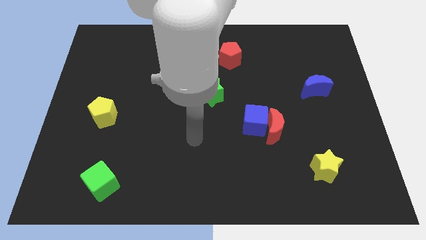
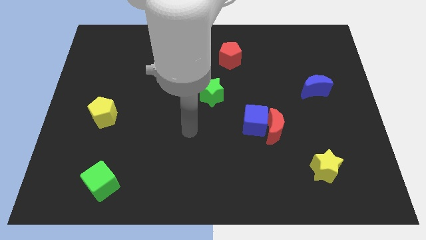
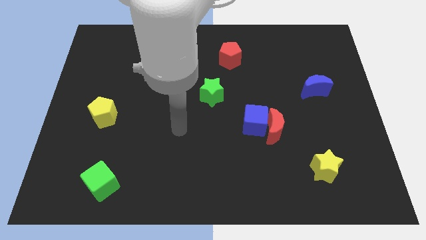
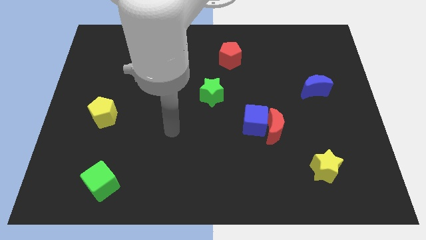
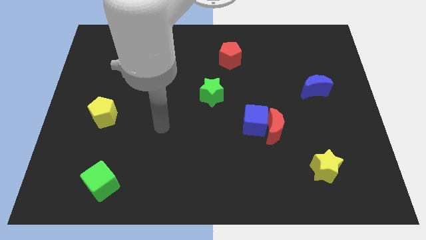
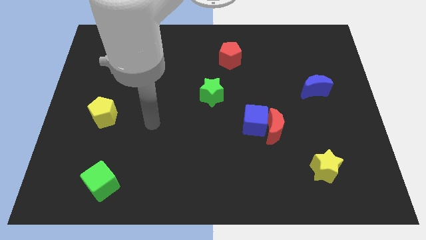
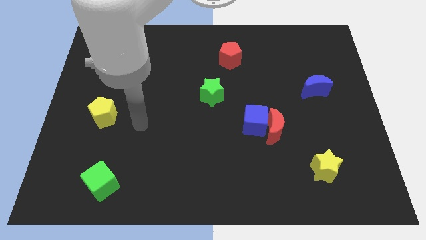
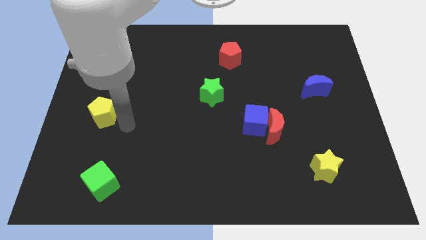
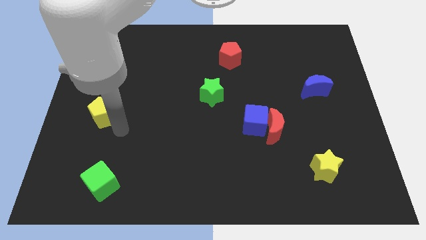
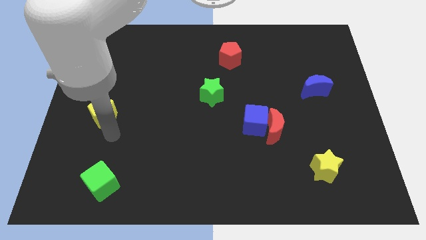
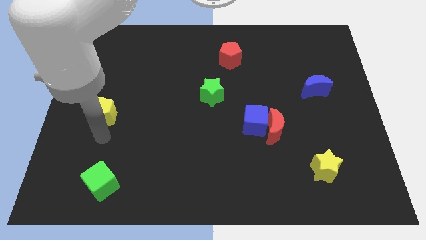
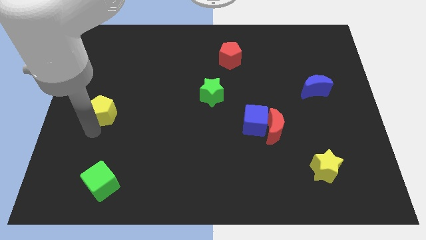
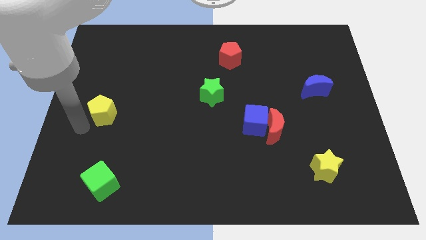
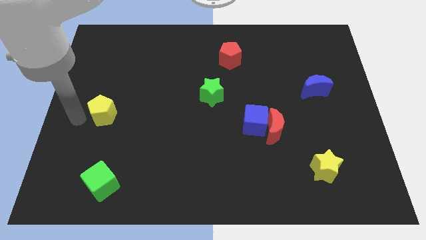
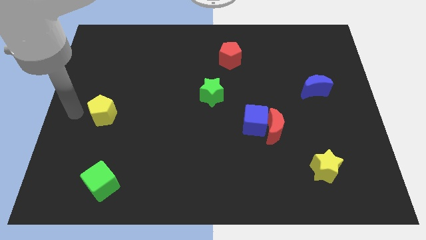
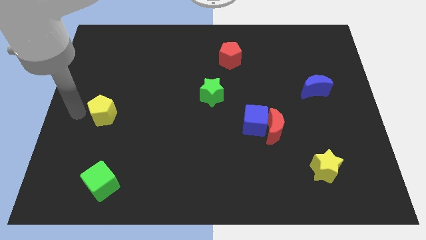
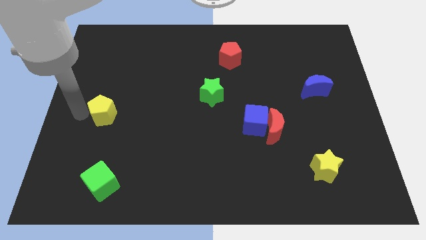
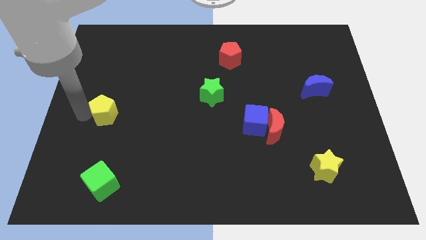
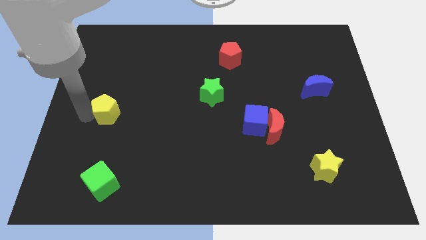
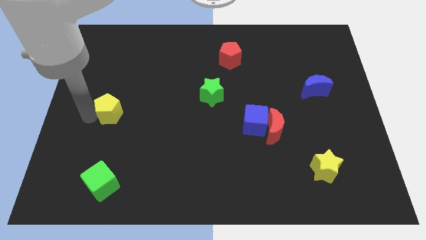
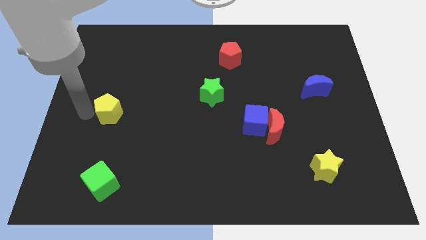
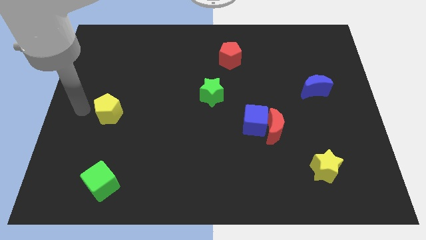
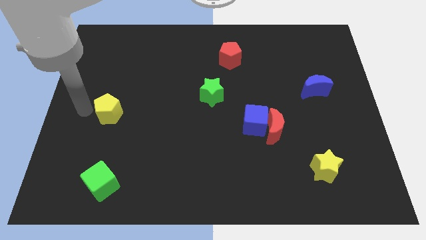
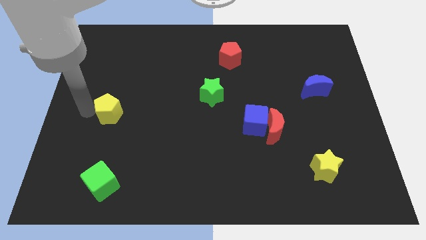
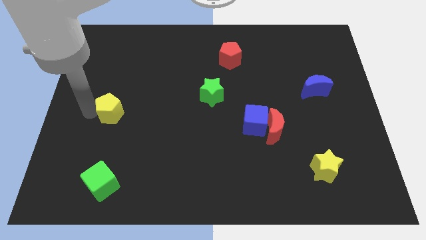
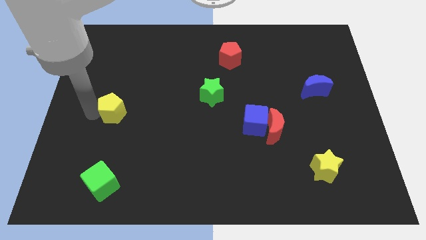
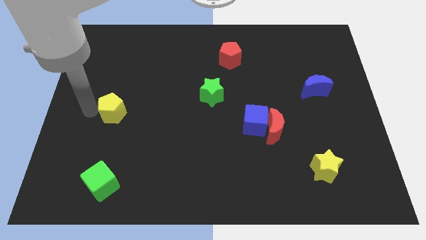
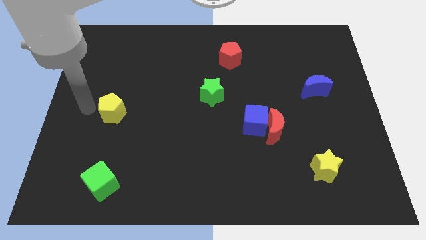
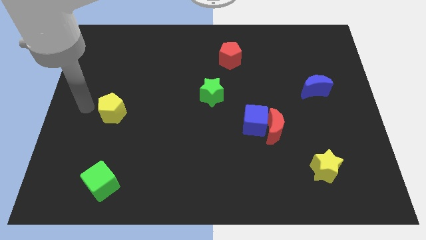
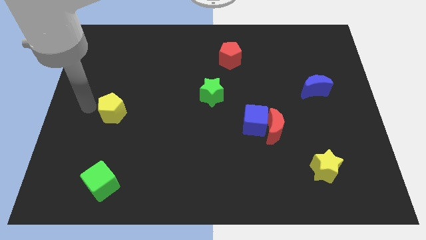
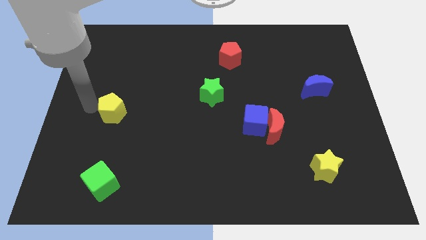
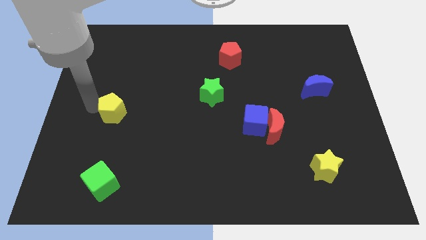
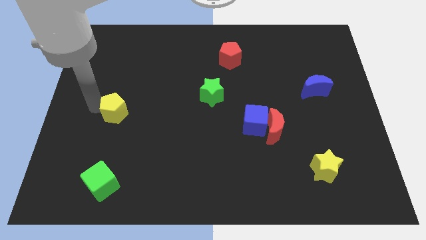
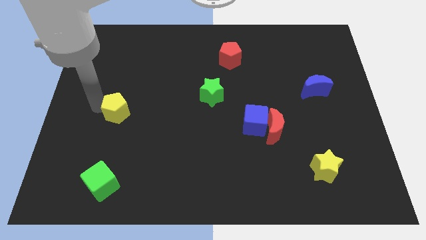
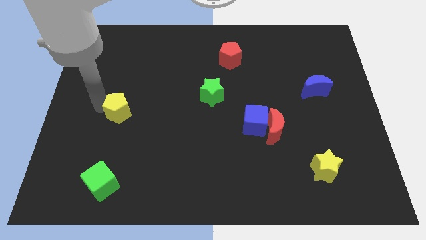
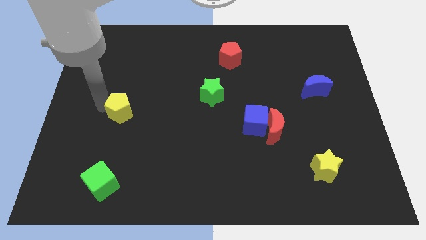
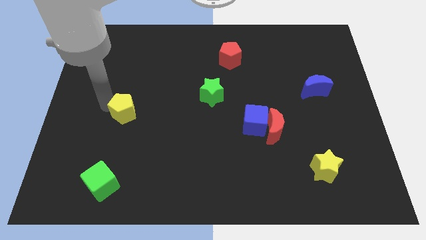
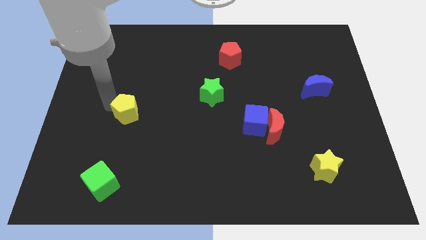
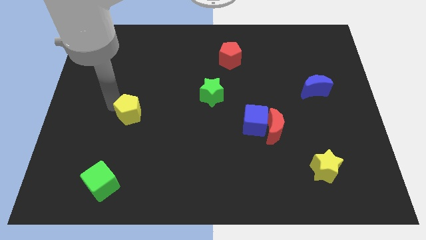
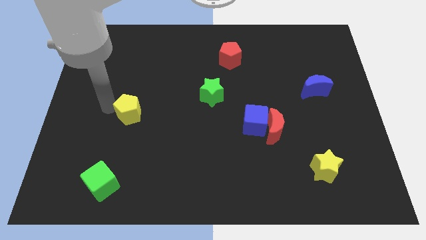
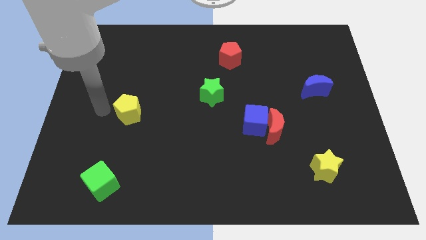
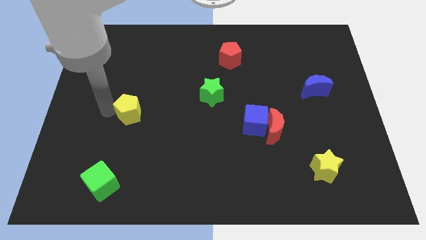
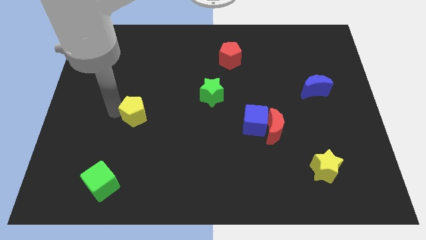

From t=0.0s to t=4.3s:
push the yellow pentagon slightly to the right

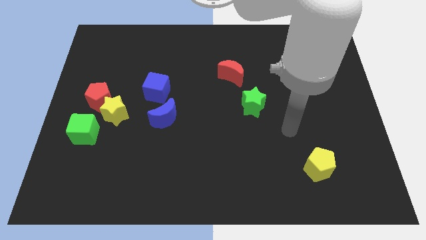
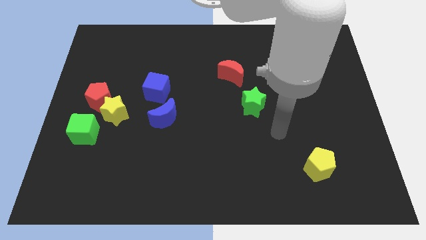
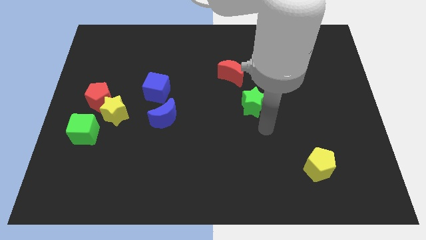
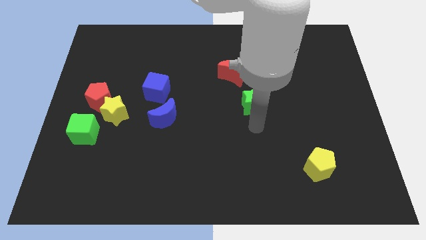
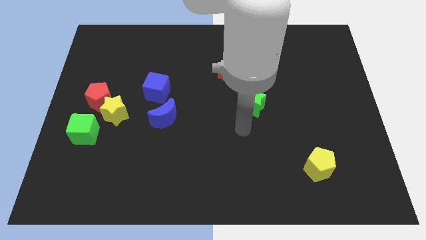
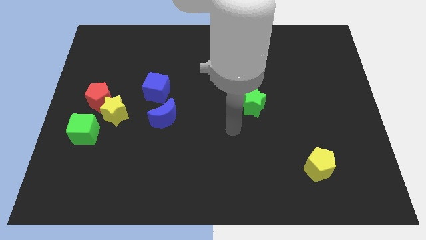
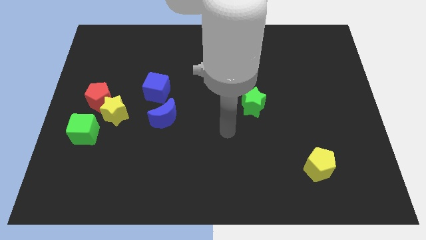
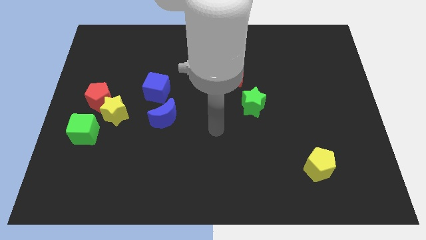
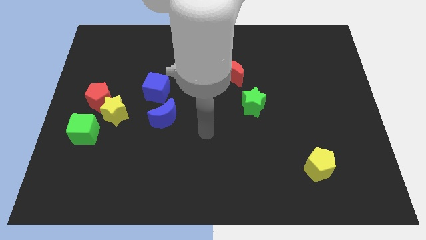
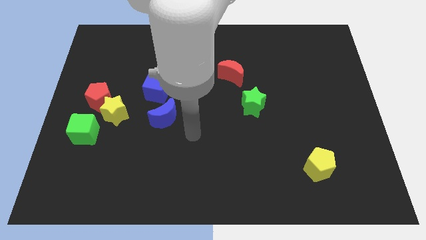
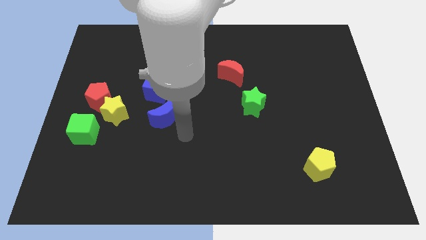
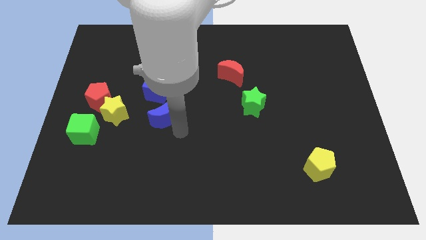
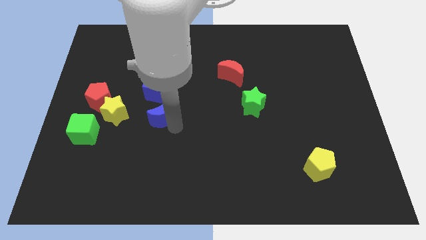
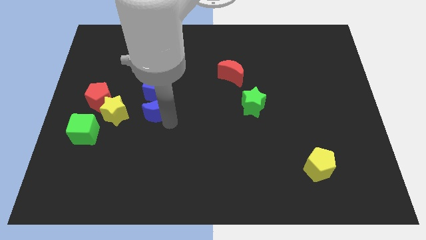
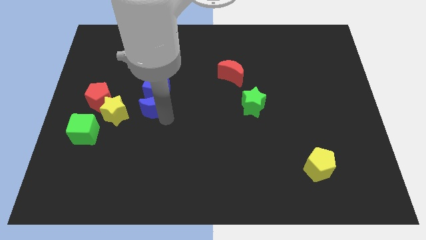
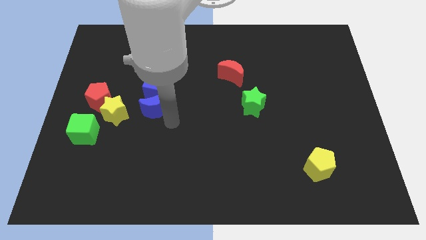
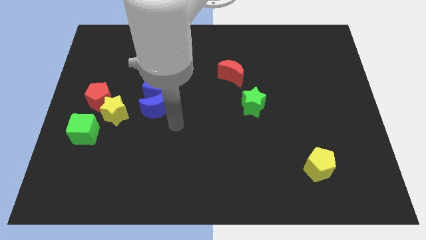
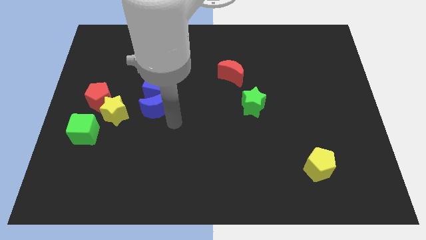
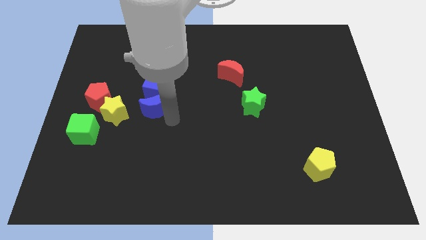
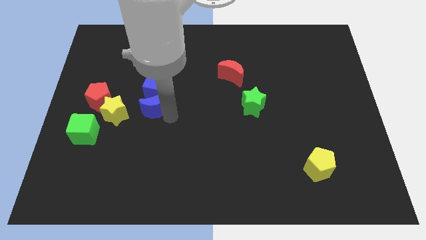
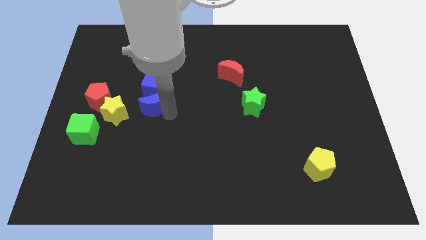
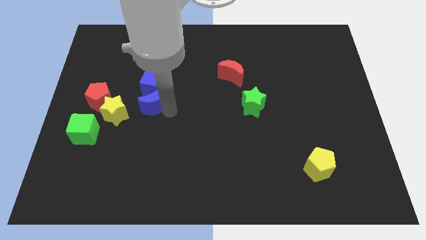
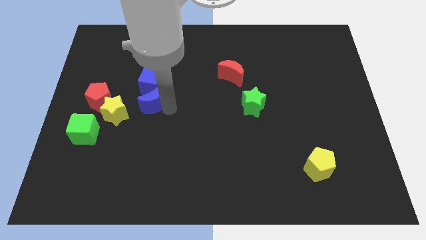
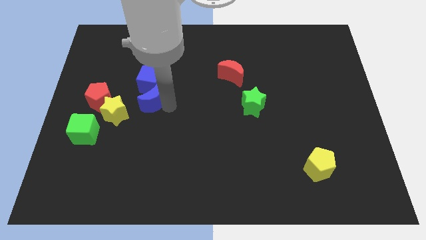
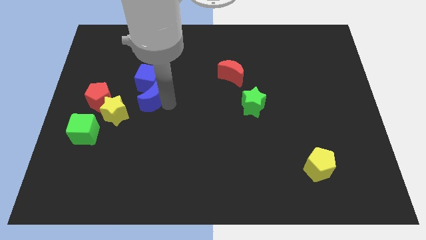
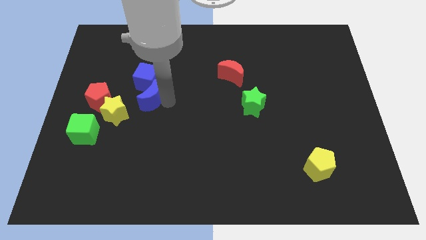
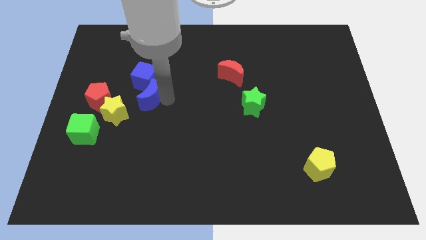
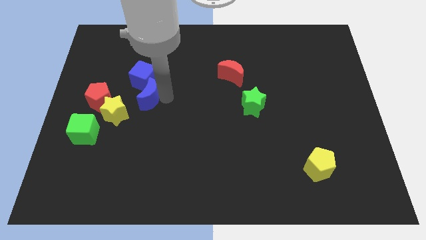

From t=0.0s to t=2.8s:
slightly move the blue moon up and then to the left

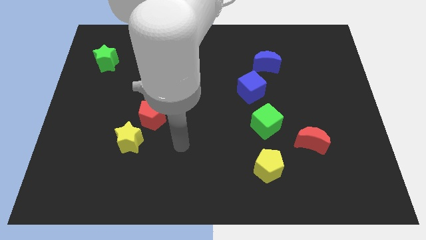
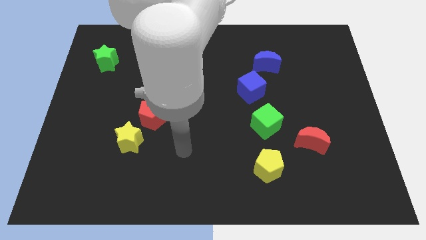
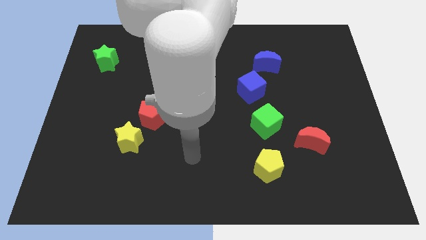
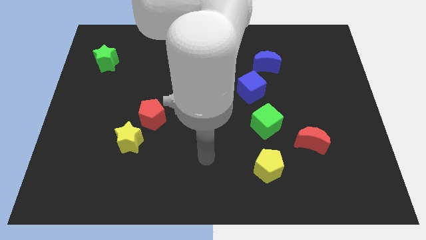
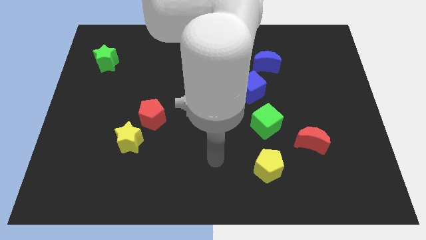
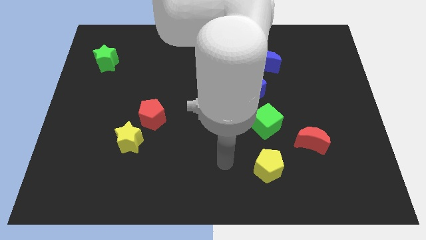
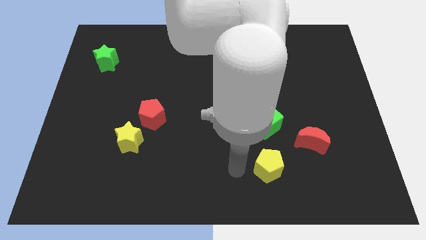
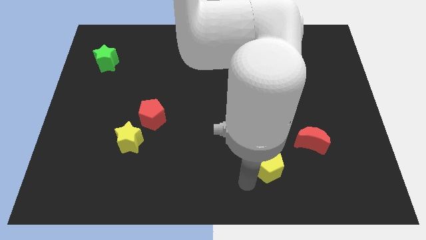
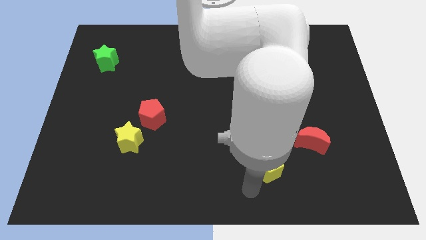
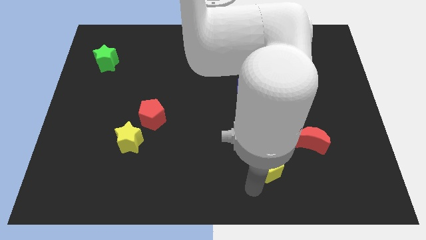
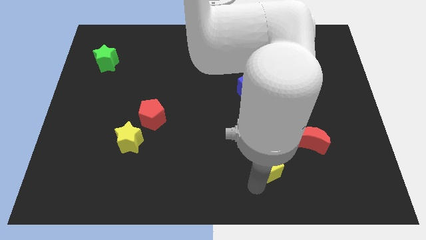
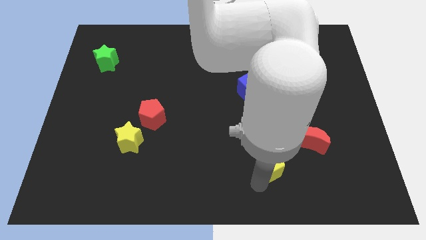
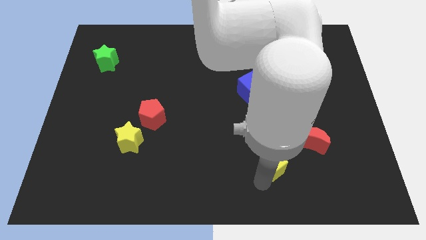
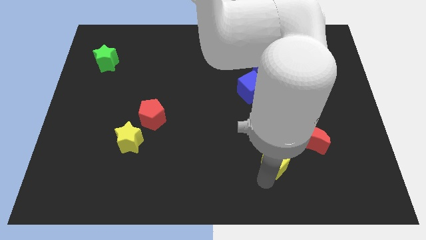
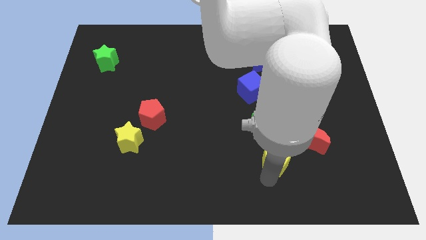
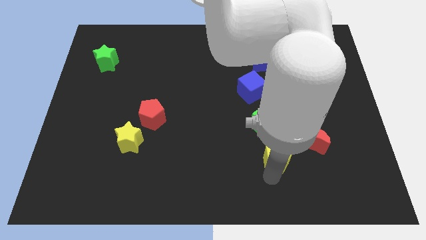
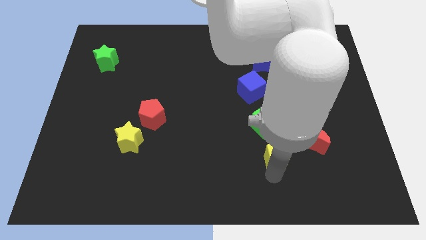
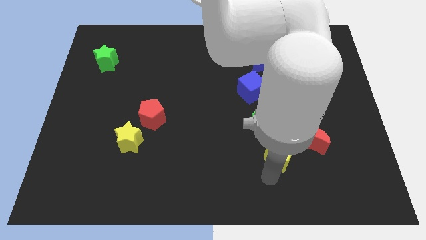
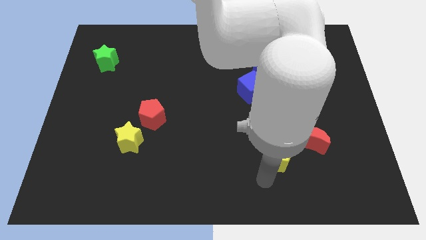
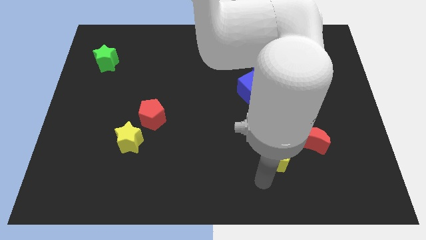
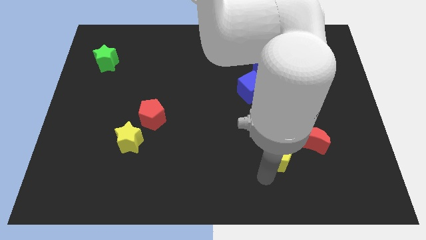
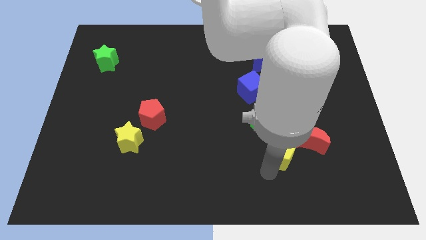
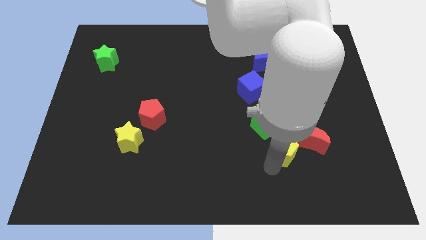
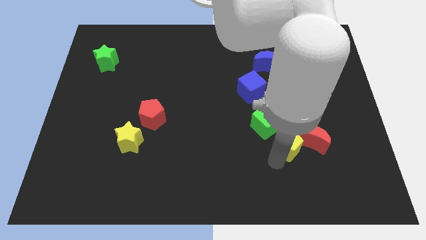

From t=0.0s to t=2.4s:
push the yellow pentagon diagonally upwards and to the right a little bit
